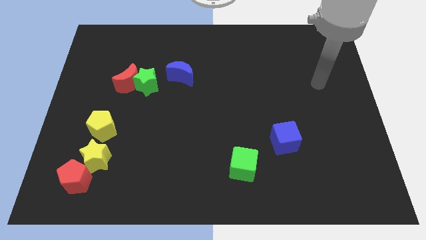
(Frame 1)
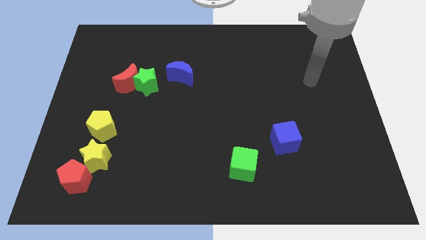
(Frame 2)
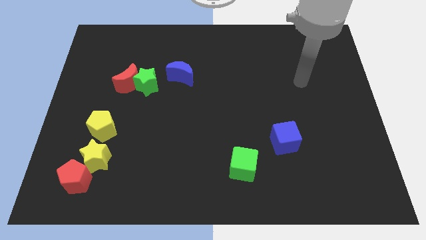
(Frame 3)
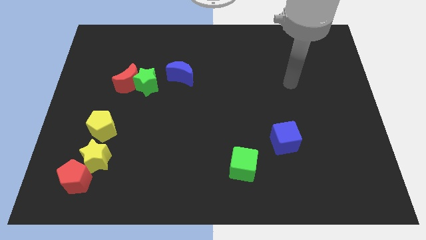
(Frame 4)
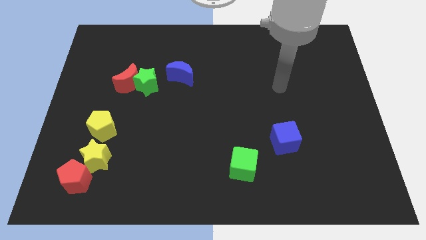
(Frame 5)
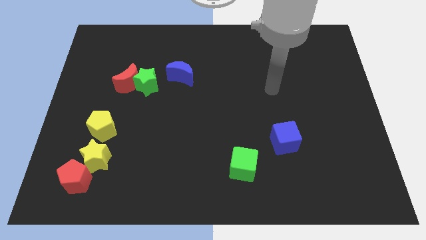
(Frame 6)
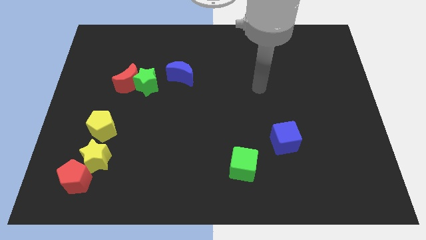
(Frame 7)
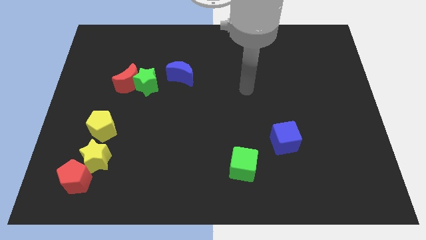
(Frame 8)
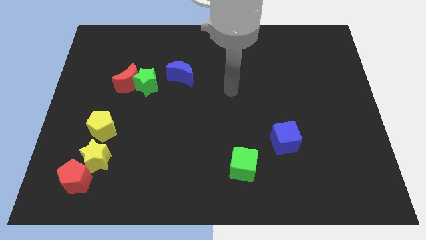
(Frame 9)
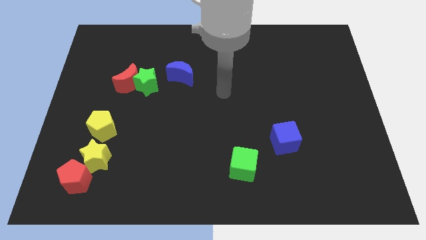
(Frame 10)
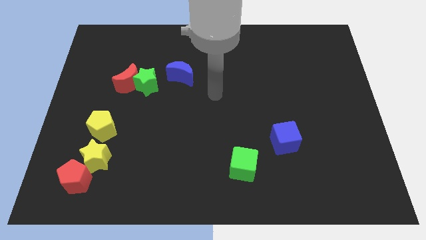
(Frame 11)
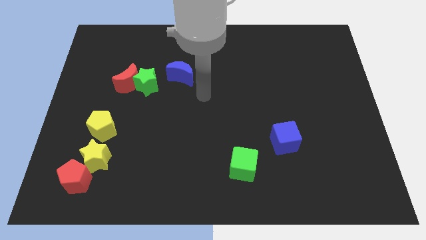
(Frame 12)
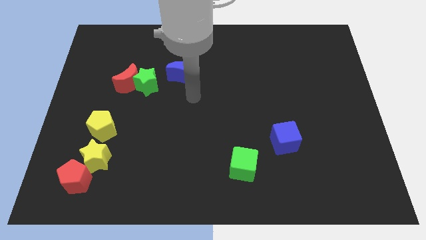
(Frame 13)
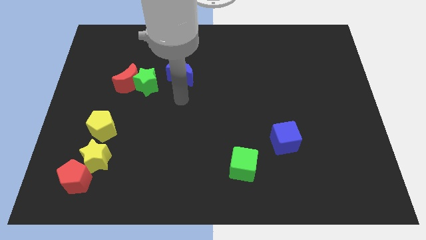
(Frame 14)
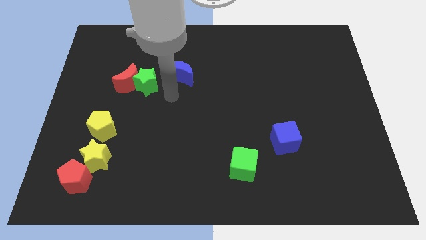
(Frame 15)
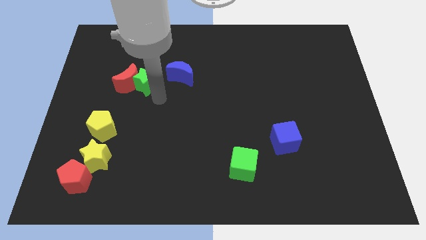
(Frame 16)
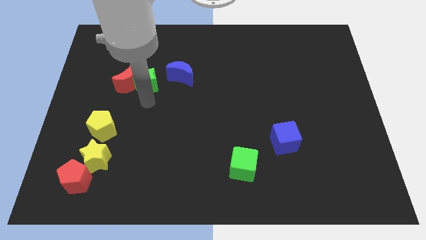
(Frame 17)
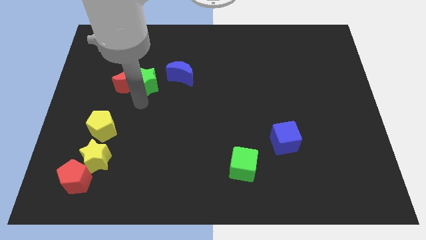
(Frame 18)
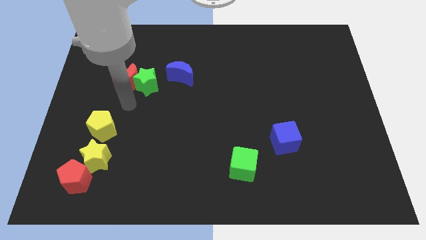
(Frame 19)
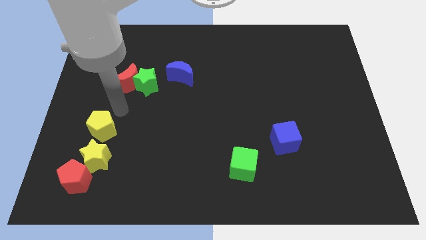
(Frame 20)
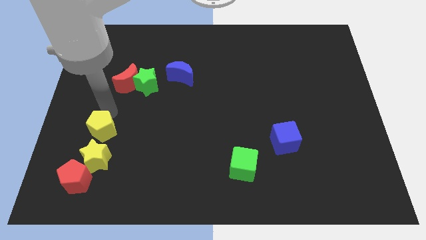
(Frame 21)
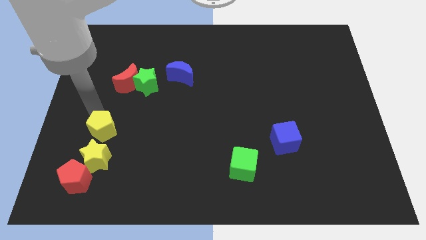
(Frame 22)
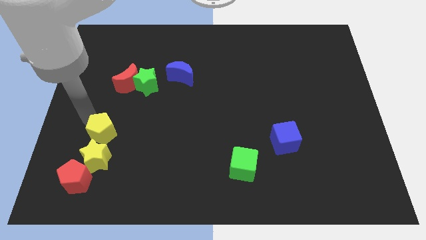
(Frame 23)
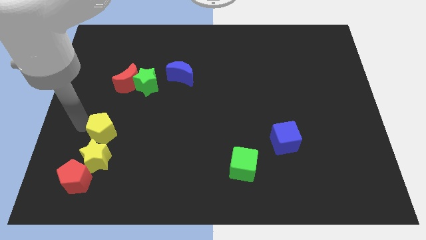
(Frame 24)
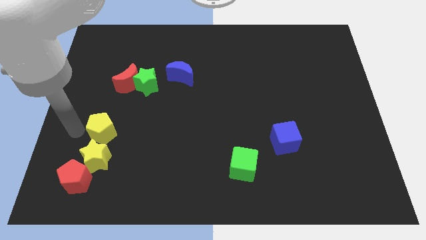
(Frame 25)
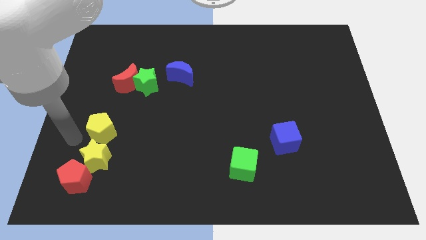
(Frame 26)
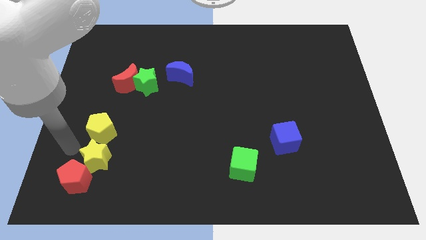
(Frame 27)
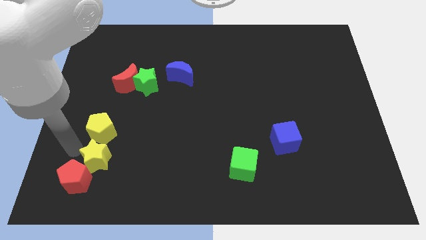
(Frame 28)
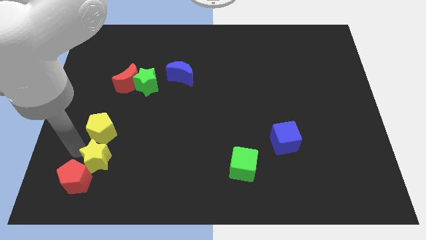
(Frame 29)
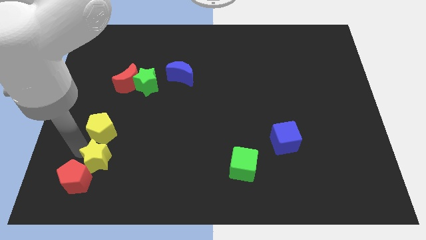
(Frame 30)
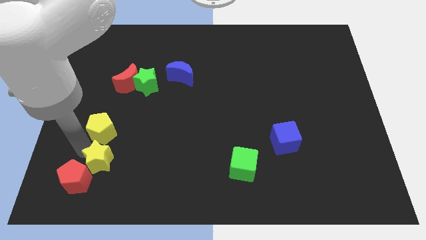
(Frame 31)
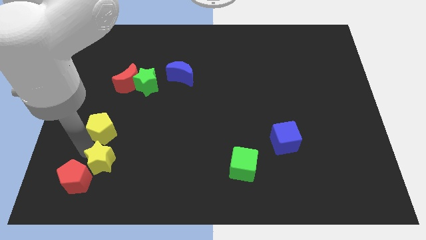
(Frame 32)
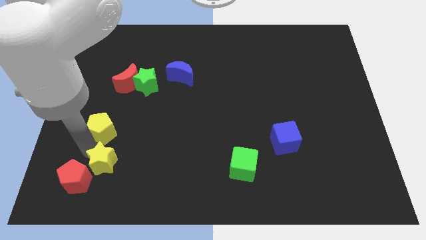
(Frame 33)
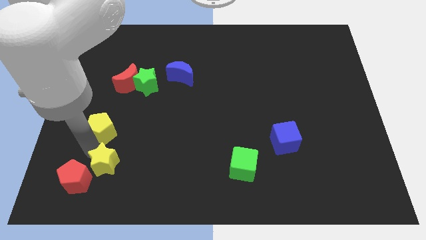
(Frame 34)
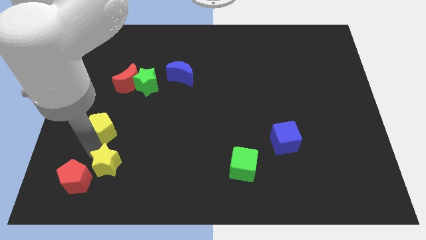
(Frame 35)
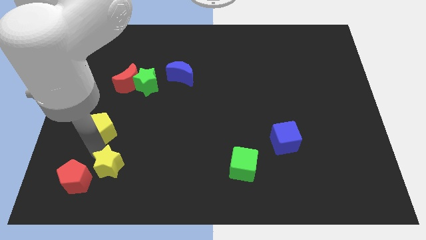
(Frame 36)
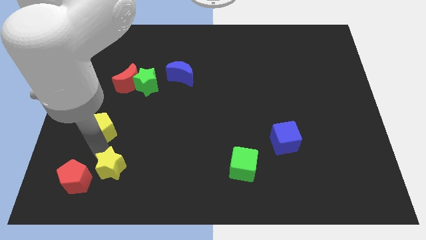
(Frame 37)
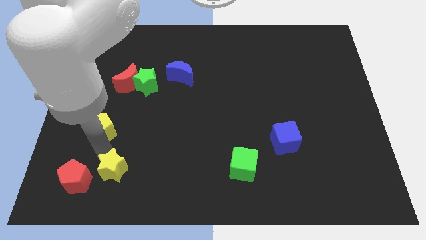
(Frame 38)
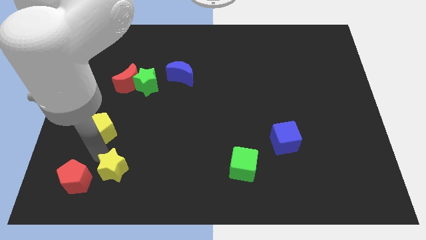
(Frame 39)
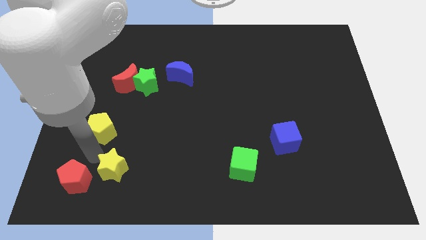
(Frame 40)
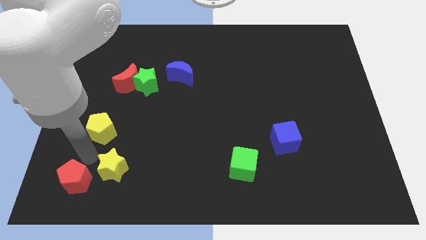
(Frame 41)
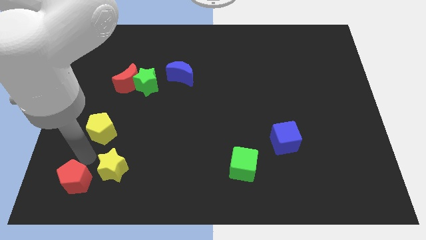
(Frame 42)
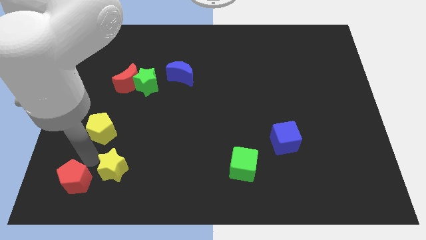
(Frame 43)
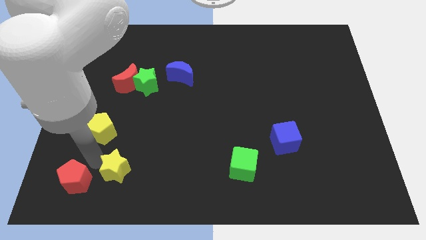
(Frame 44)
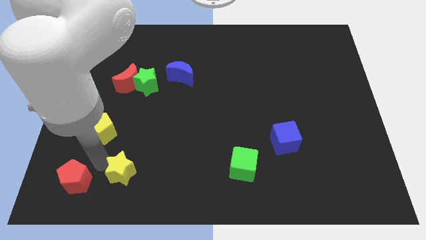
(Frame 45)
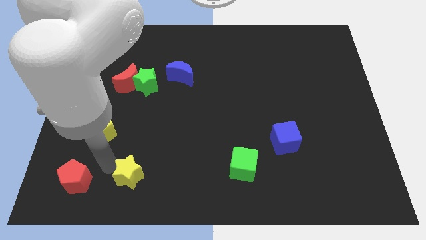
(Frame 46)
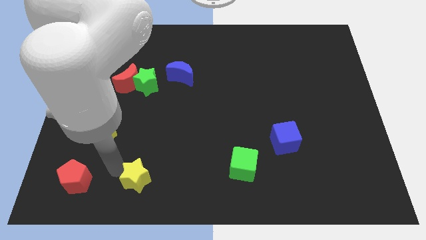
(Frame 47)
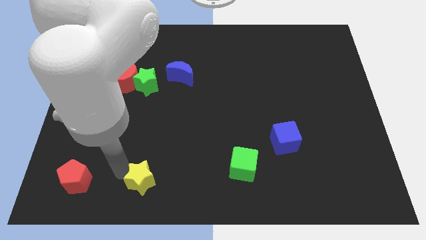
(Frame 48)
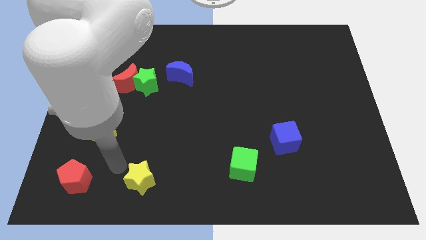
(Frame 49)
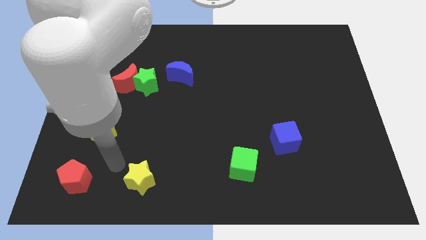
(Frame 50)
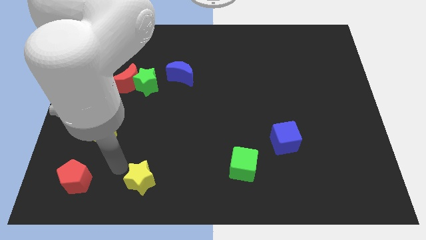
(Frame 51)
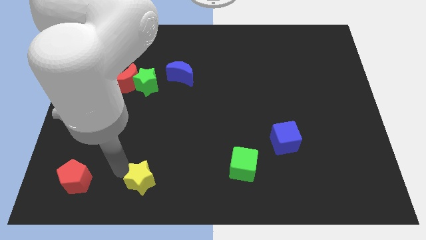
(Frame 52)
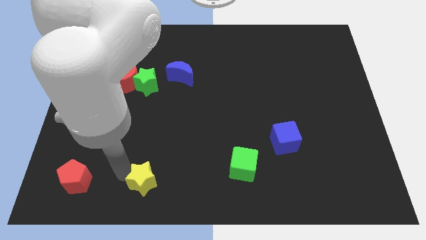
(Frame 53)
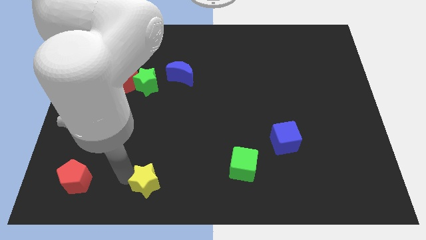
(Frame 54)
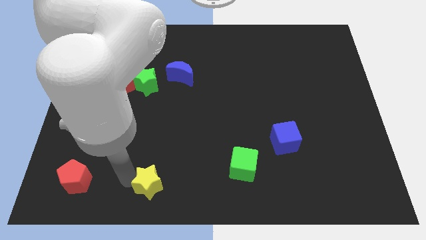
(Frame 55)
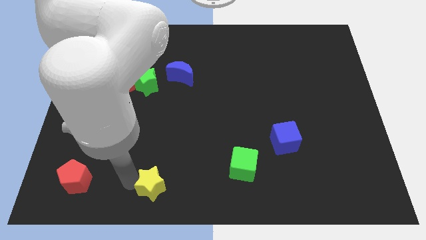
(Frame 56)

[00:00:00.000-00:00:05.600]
put the yellow star to the bottom

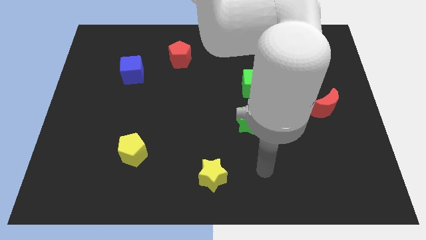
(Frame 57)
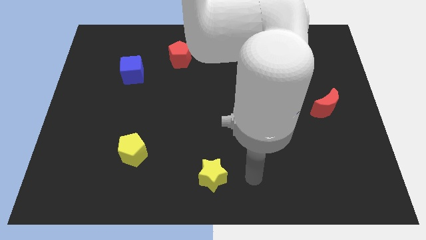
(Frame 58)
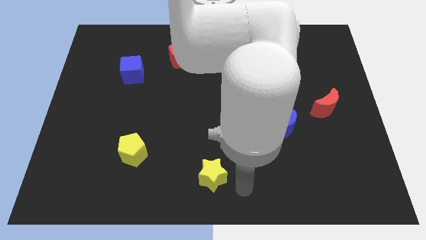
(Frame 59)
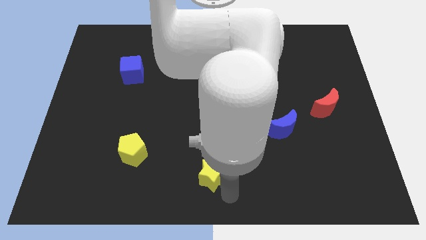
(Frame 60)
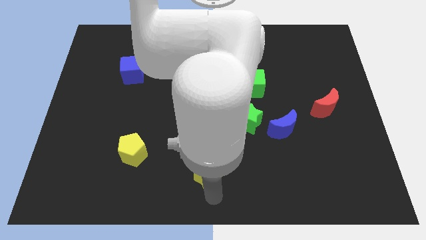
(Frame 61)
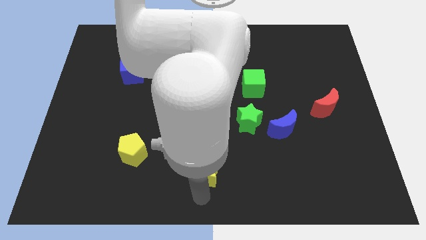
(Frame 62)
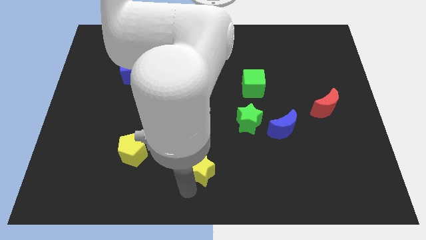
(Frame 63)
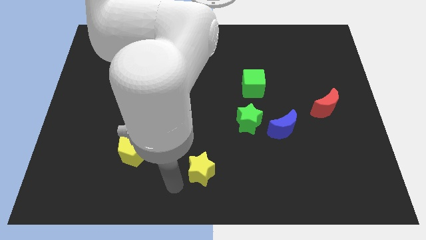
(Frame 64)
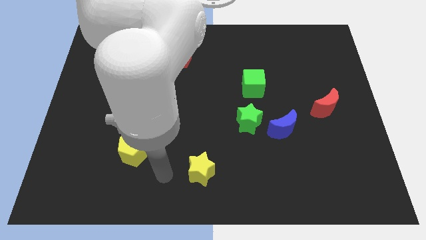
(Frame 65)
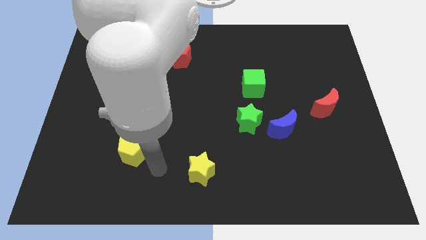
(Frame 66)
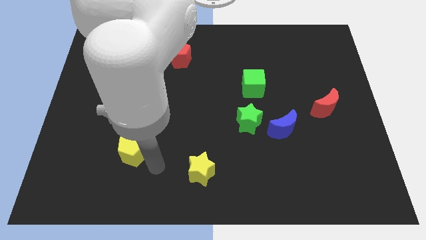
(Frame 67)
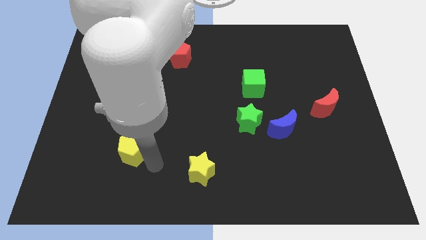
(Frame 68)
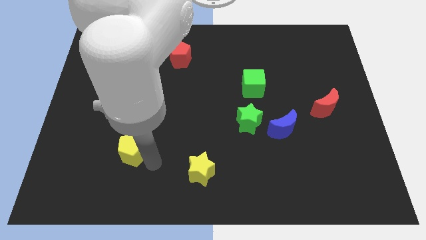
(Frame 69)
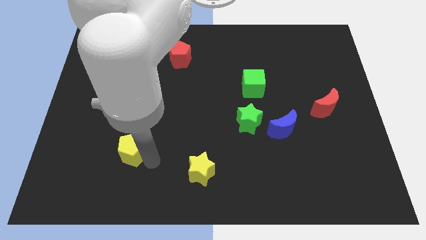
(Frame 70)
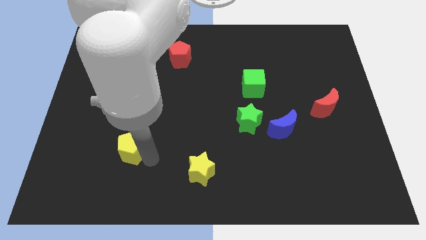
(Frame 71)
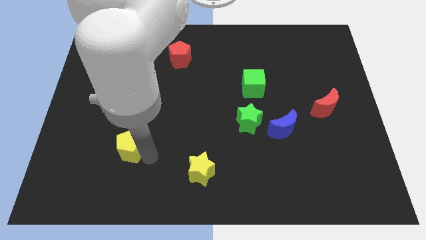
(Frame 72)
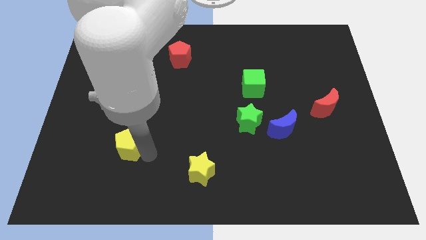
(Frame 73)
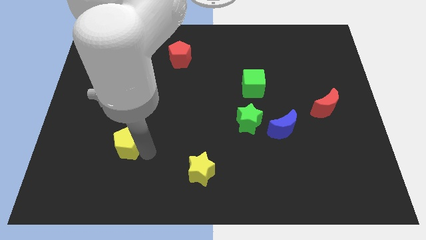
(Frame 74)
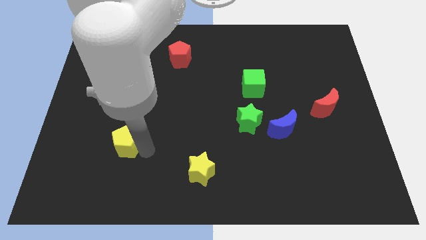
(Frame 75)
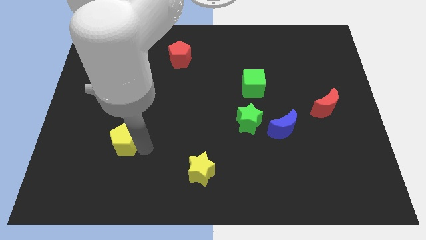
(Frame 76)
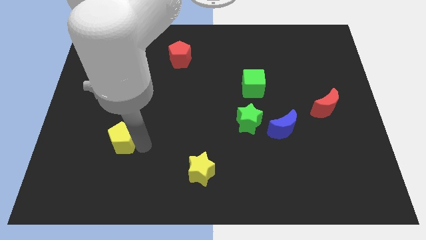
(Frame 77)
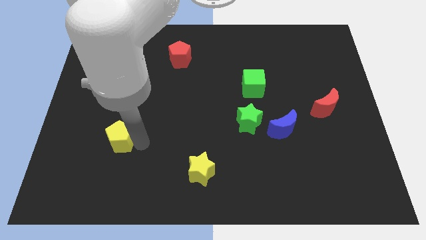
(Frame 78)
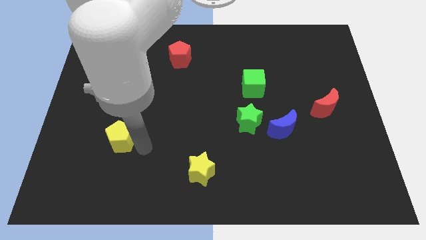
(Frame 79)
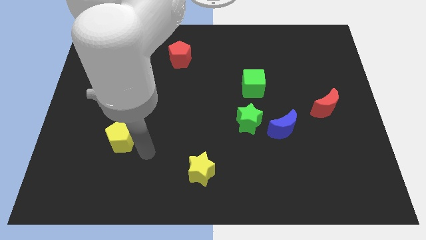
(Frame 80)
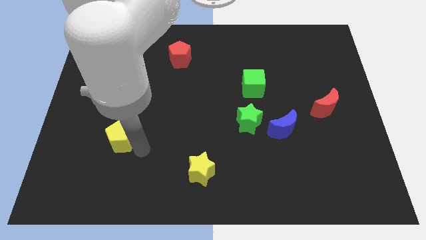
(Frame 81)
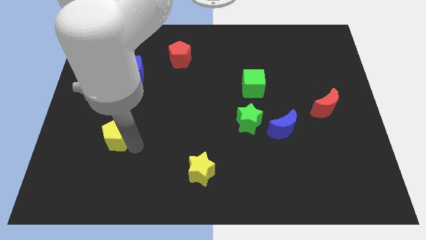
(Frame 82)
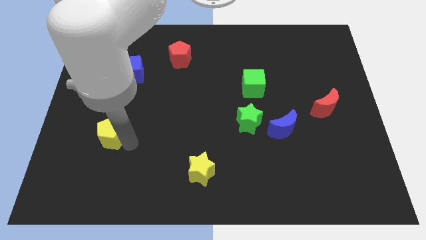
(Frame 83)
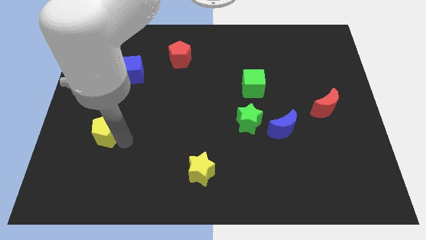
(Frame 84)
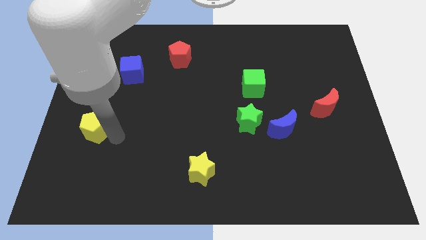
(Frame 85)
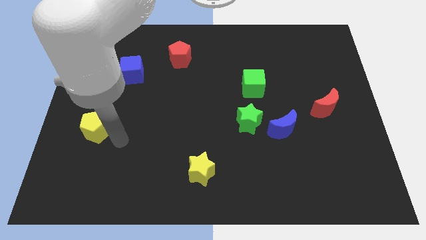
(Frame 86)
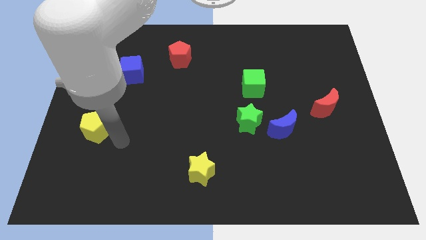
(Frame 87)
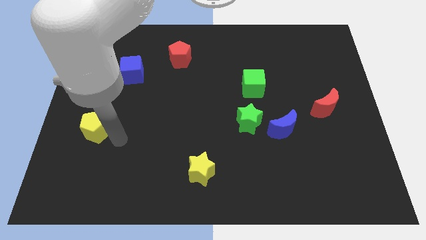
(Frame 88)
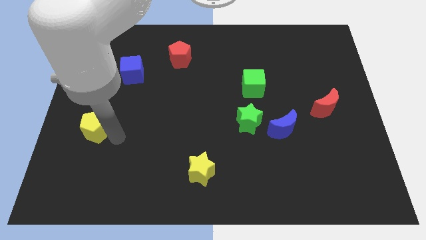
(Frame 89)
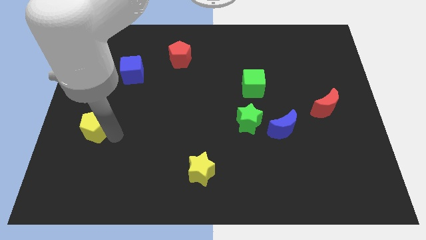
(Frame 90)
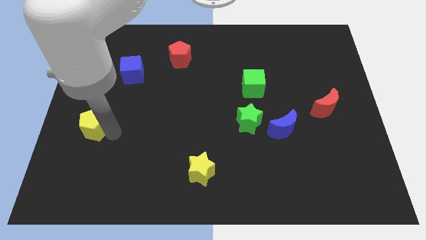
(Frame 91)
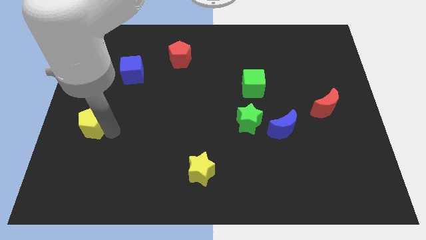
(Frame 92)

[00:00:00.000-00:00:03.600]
move the yellow pentagon to the left side of the board
